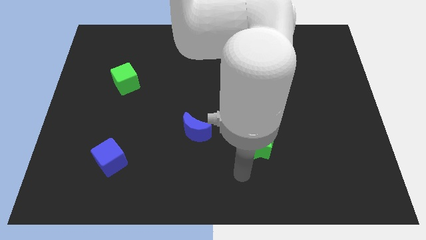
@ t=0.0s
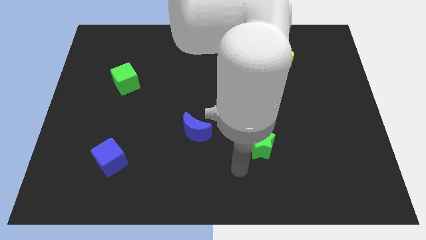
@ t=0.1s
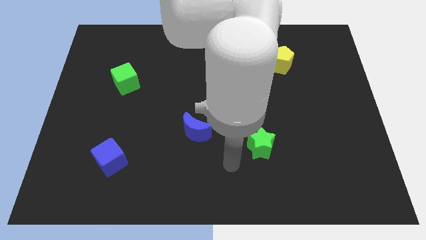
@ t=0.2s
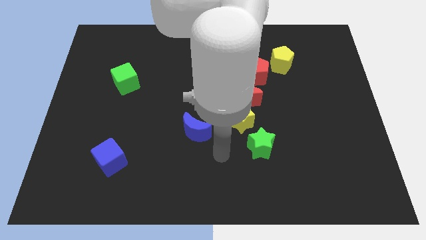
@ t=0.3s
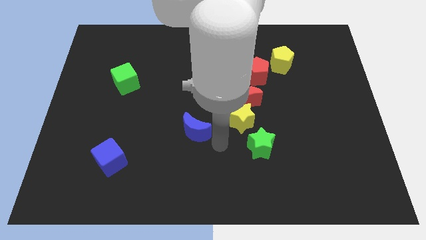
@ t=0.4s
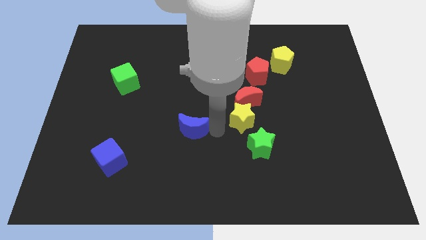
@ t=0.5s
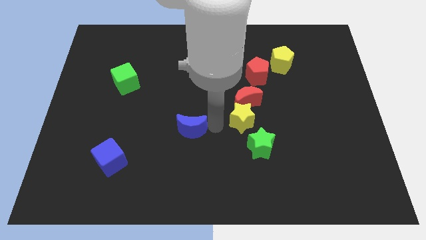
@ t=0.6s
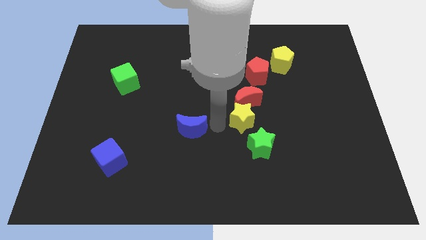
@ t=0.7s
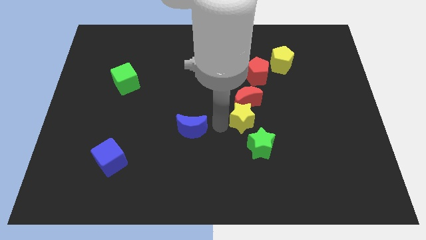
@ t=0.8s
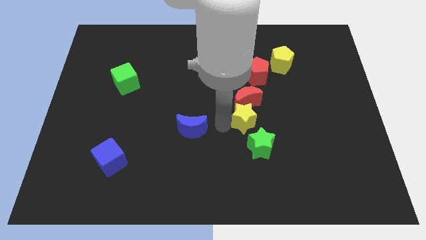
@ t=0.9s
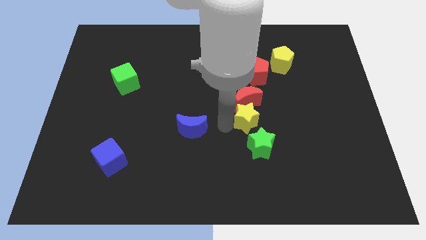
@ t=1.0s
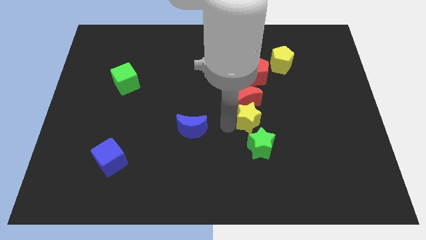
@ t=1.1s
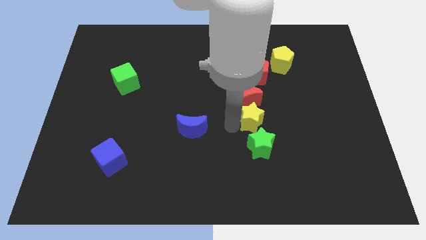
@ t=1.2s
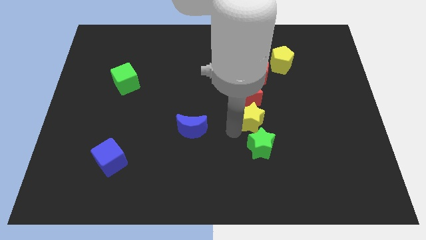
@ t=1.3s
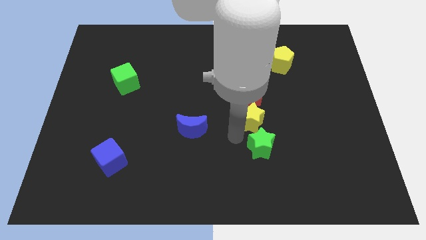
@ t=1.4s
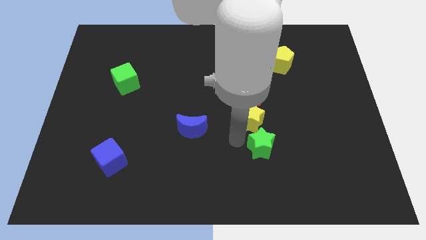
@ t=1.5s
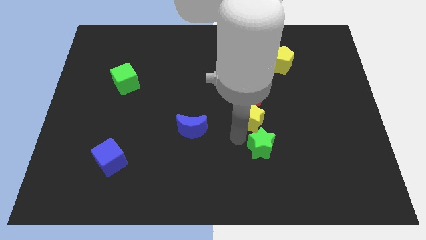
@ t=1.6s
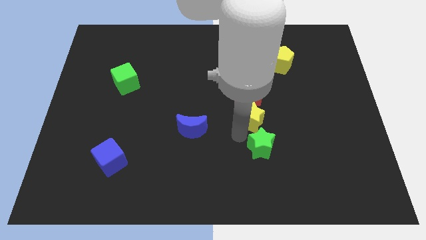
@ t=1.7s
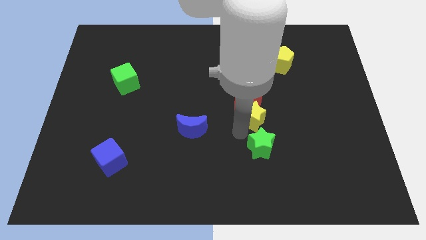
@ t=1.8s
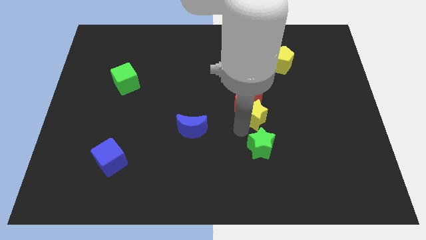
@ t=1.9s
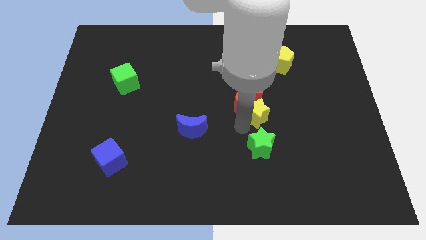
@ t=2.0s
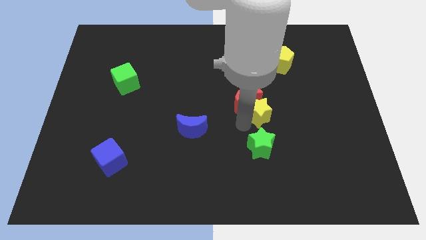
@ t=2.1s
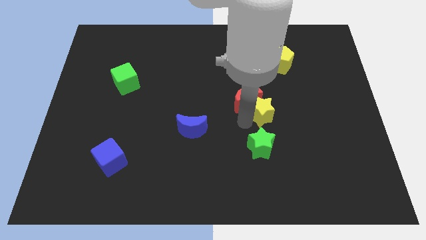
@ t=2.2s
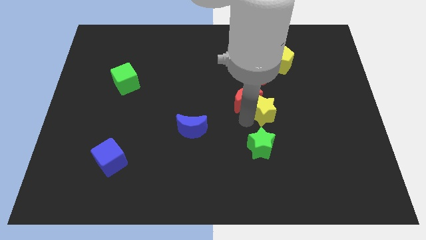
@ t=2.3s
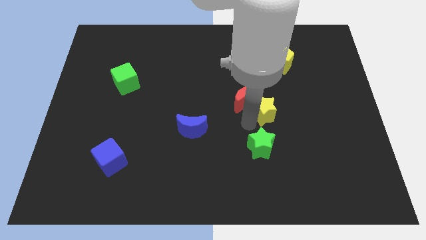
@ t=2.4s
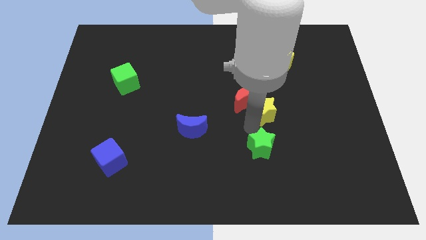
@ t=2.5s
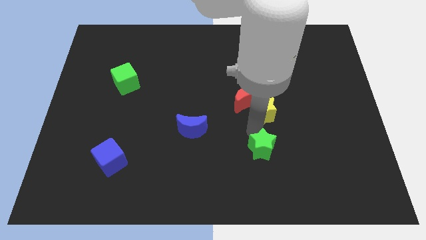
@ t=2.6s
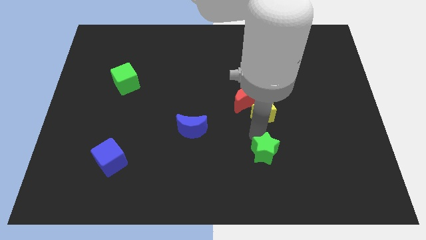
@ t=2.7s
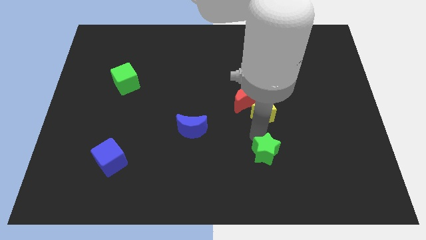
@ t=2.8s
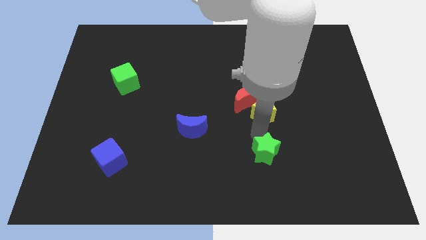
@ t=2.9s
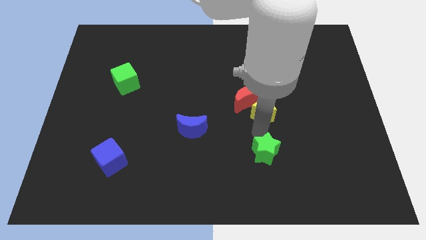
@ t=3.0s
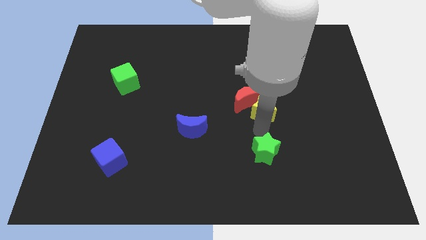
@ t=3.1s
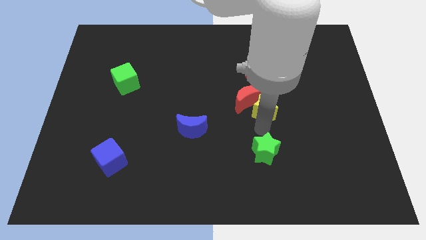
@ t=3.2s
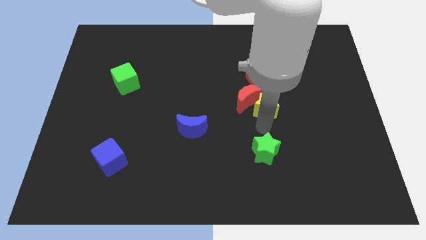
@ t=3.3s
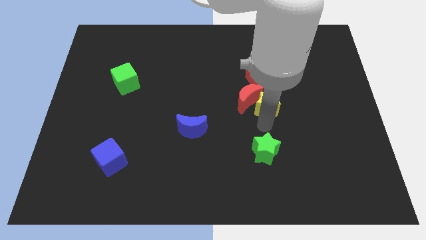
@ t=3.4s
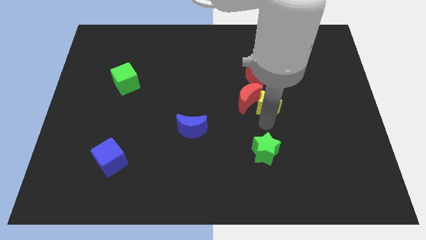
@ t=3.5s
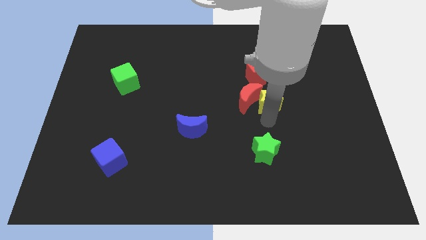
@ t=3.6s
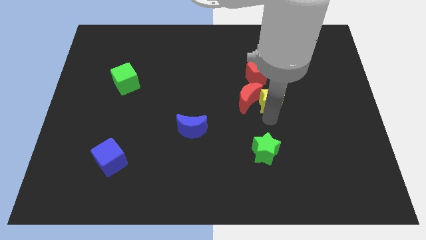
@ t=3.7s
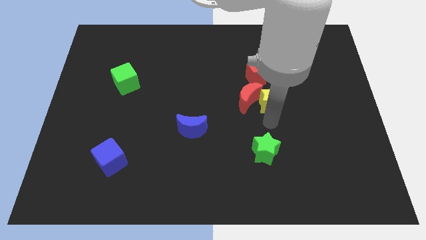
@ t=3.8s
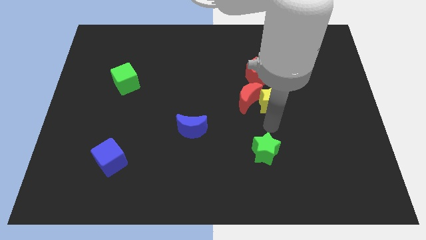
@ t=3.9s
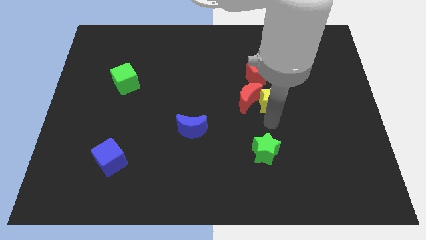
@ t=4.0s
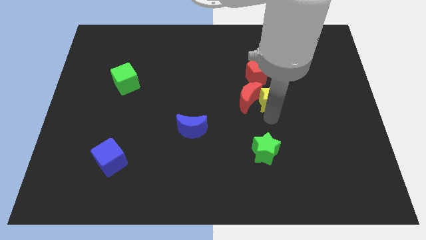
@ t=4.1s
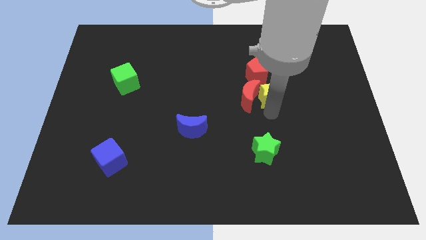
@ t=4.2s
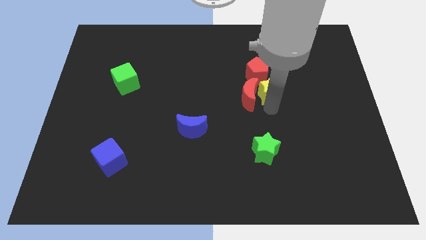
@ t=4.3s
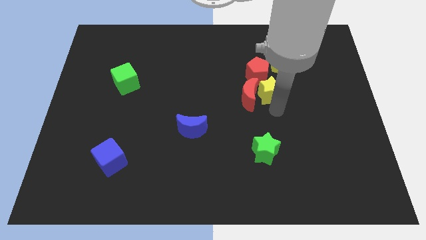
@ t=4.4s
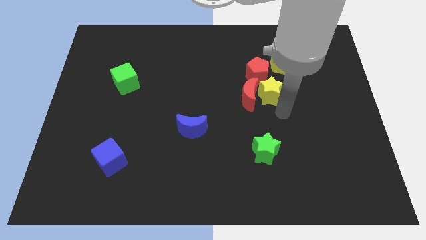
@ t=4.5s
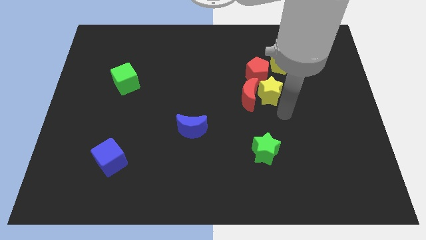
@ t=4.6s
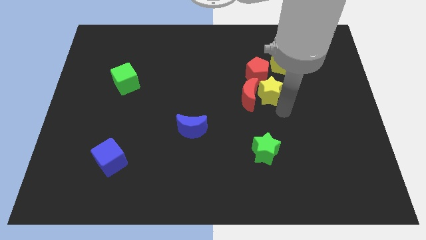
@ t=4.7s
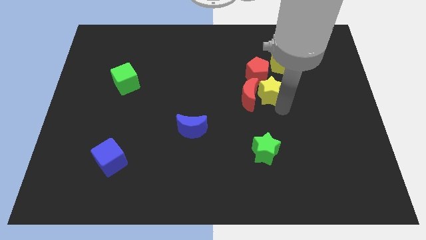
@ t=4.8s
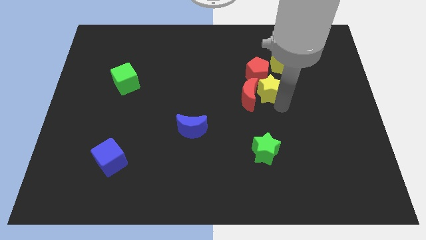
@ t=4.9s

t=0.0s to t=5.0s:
put the yellow star towards the red pentagon

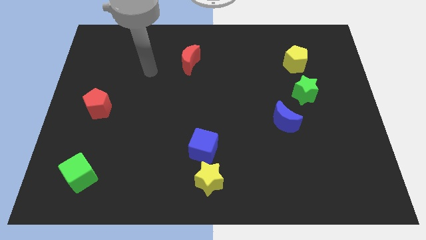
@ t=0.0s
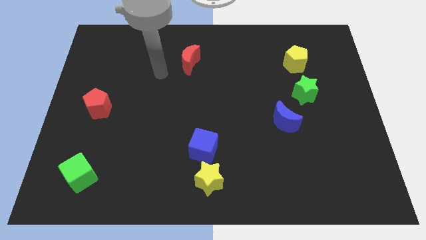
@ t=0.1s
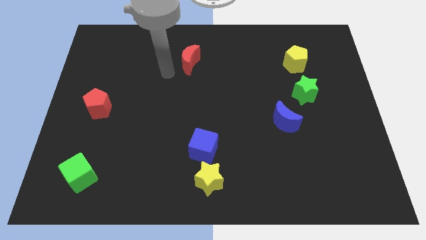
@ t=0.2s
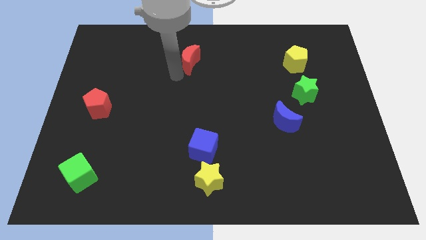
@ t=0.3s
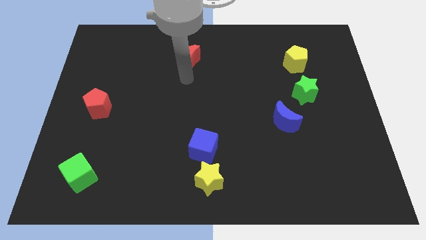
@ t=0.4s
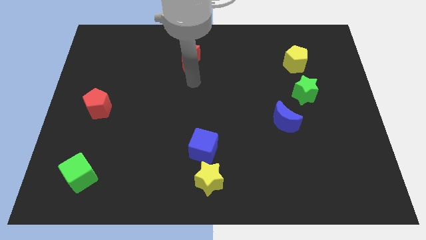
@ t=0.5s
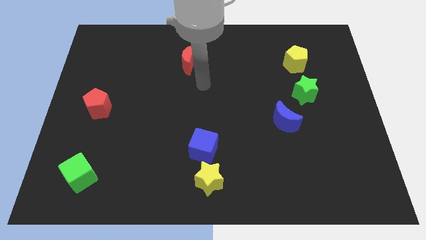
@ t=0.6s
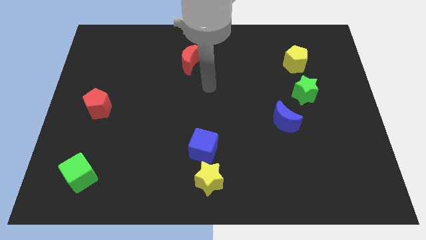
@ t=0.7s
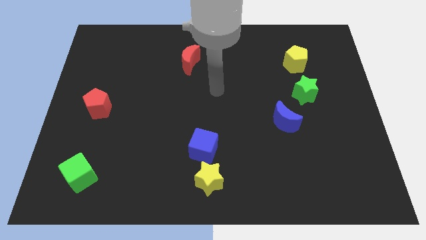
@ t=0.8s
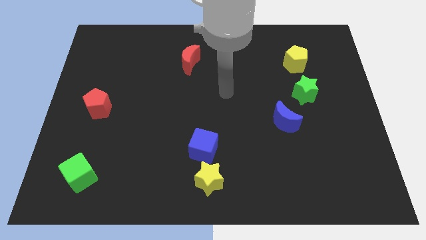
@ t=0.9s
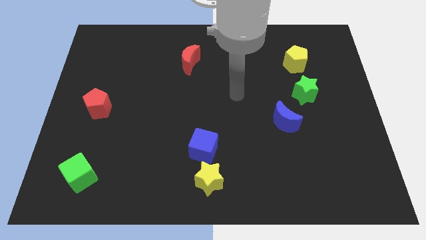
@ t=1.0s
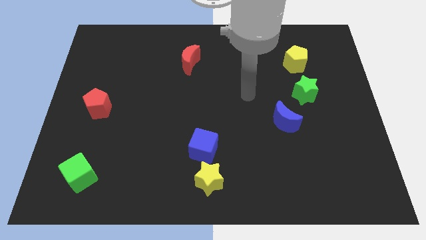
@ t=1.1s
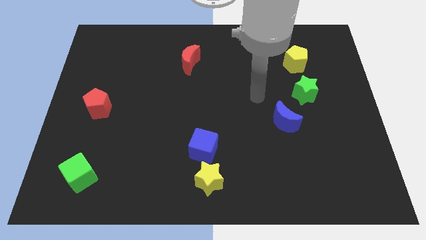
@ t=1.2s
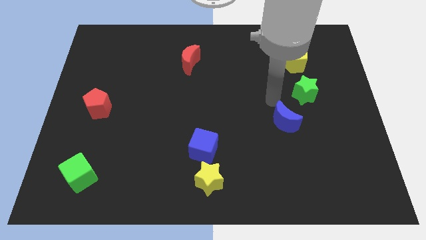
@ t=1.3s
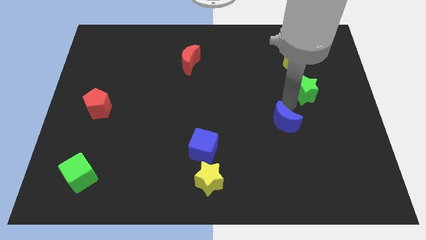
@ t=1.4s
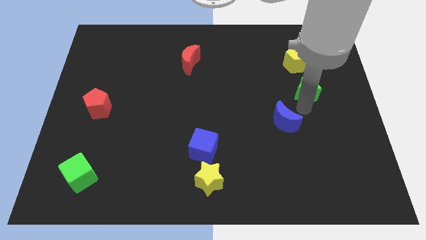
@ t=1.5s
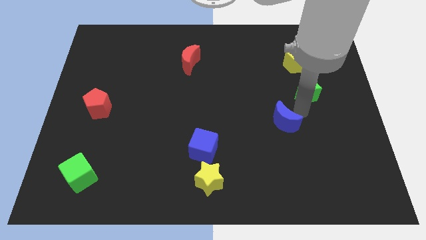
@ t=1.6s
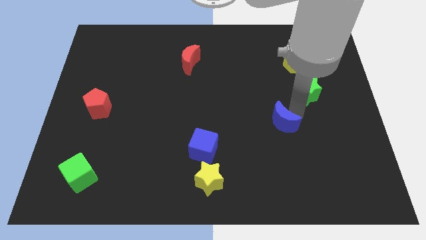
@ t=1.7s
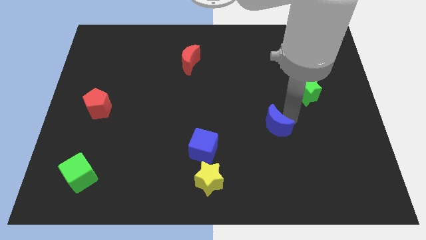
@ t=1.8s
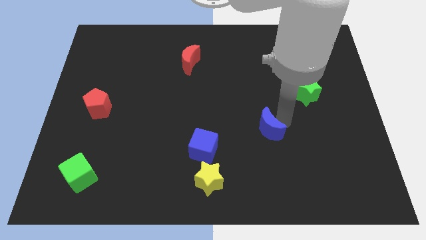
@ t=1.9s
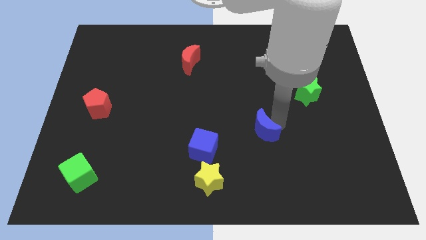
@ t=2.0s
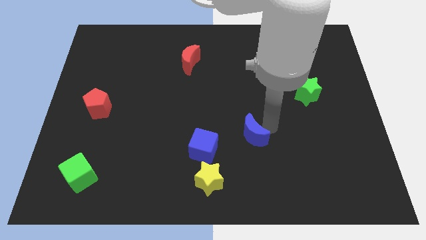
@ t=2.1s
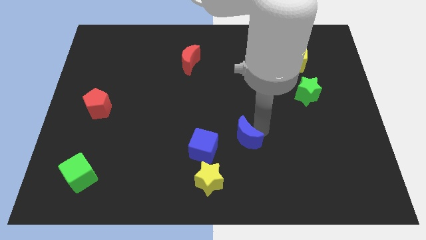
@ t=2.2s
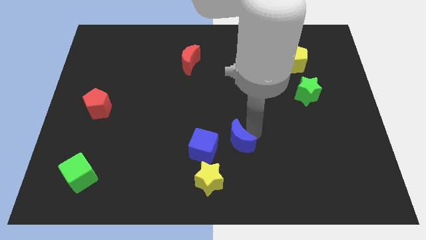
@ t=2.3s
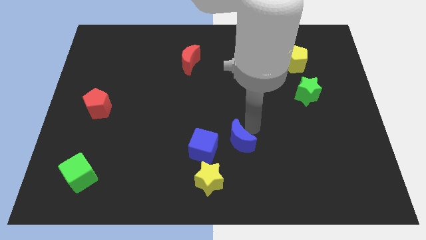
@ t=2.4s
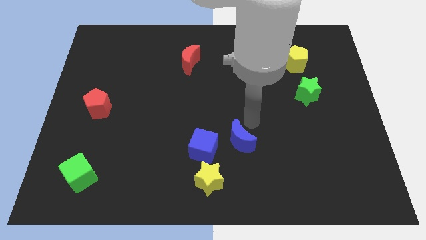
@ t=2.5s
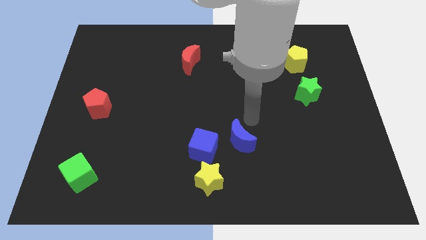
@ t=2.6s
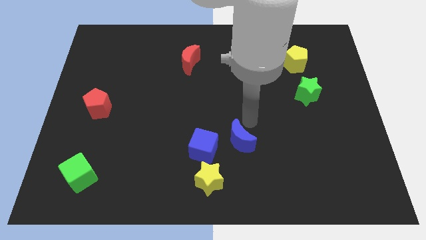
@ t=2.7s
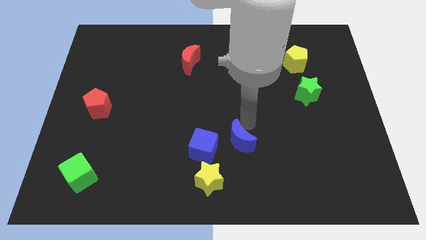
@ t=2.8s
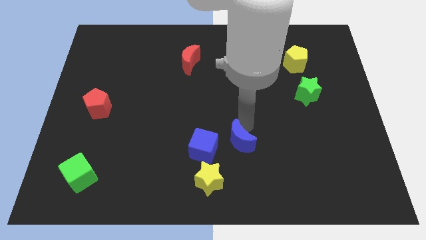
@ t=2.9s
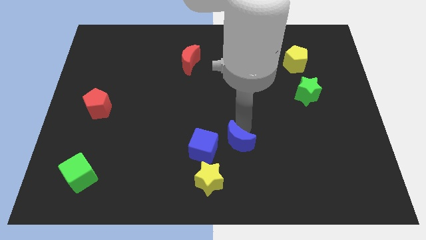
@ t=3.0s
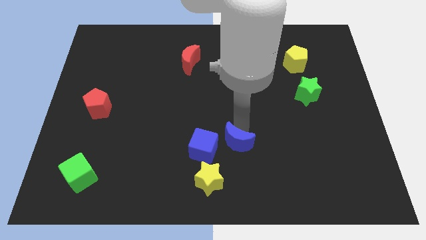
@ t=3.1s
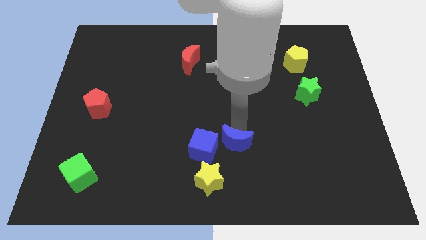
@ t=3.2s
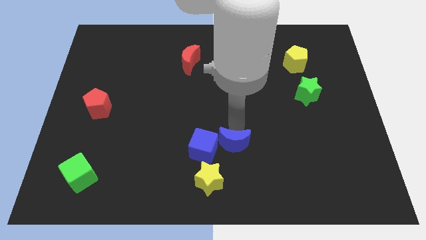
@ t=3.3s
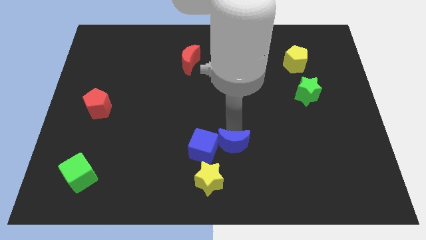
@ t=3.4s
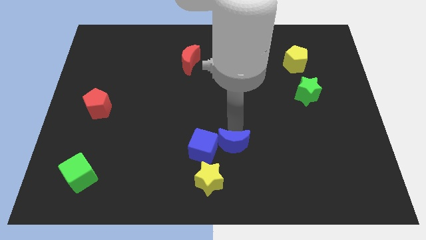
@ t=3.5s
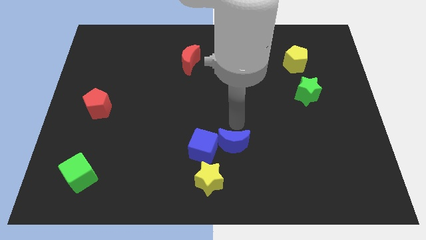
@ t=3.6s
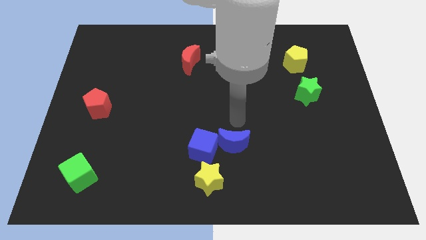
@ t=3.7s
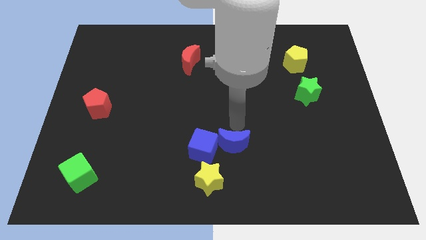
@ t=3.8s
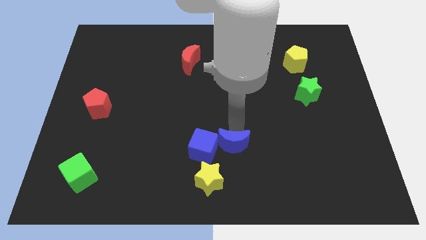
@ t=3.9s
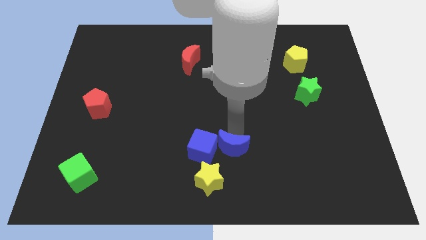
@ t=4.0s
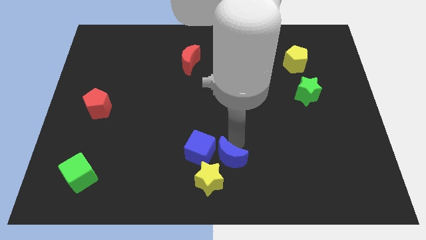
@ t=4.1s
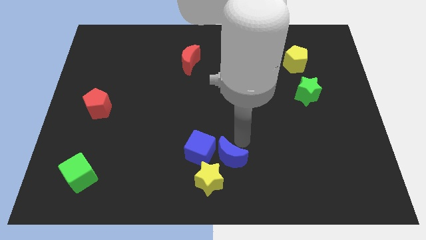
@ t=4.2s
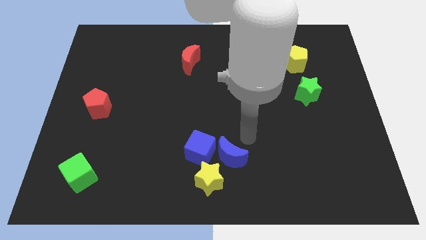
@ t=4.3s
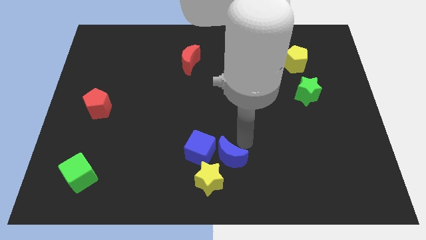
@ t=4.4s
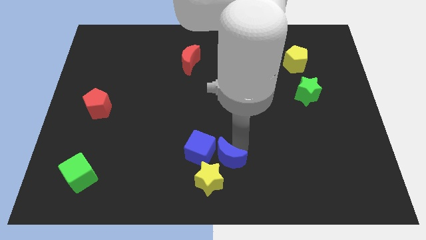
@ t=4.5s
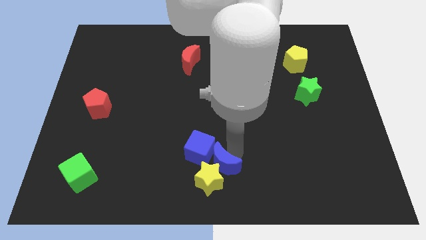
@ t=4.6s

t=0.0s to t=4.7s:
put the blue moon to the yellow star
